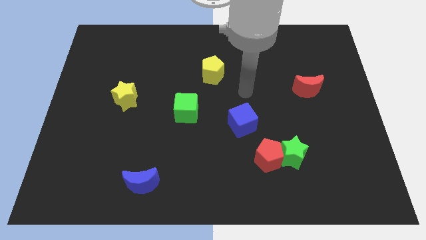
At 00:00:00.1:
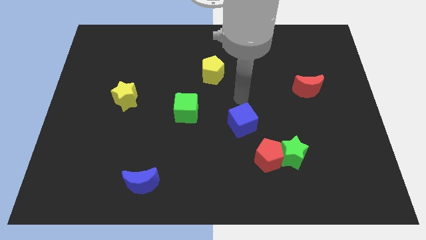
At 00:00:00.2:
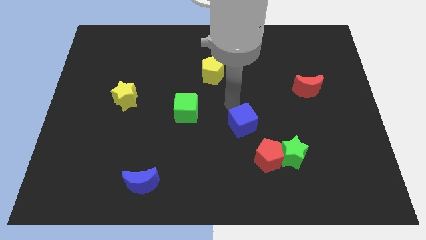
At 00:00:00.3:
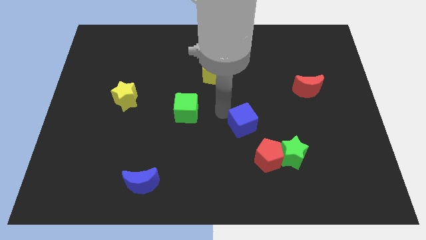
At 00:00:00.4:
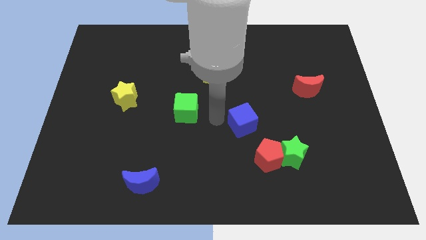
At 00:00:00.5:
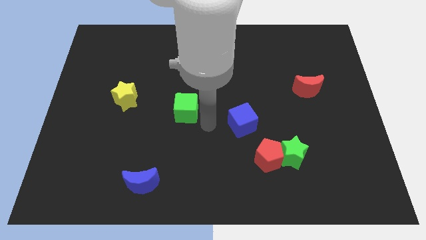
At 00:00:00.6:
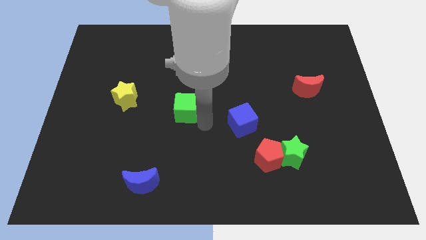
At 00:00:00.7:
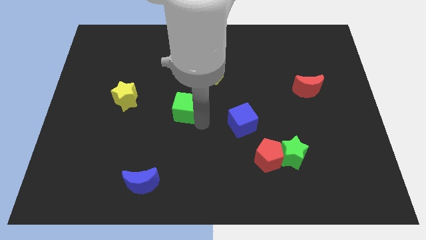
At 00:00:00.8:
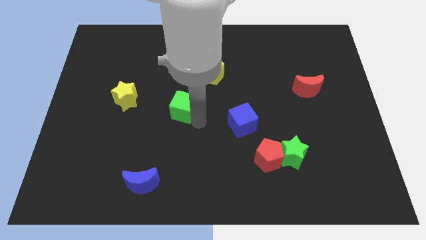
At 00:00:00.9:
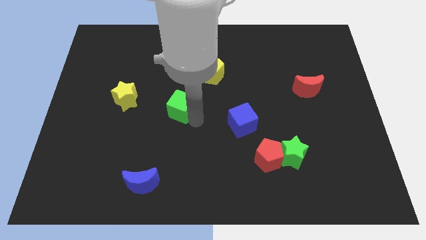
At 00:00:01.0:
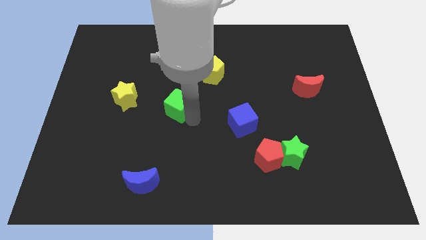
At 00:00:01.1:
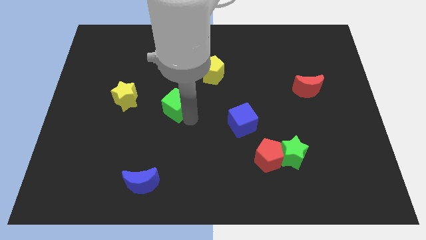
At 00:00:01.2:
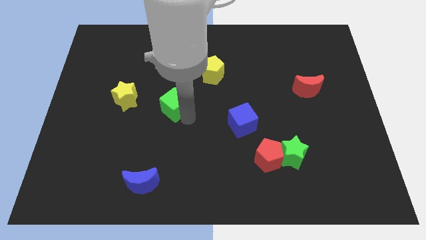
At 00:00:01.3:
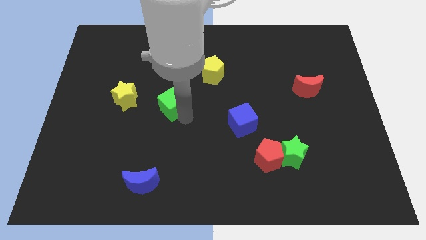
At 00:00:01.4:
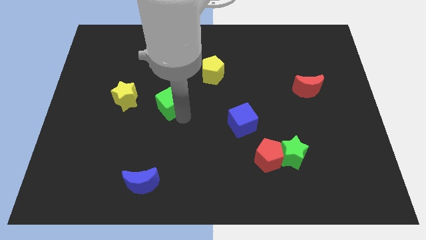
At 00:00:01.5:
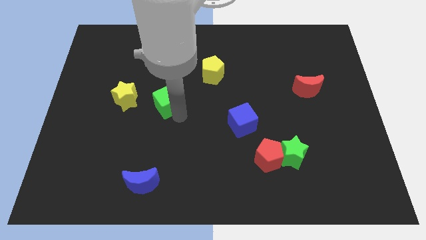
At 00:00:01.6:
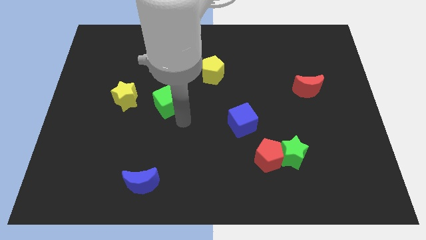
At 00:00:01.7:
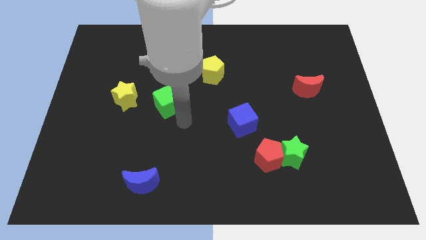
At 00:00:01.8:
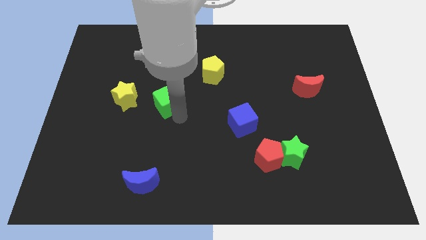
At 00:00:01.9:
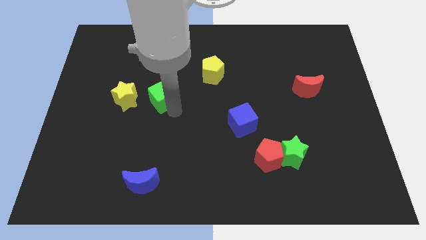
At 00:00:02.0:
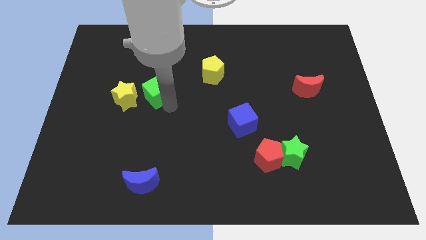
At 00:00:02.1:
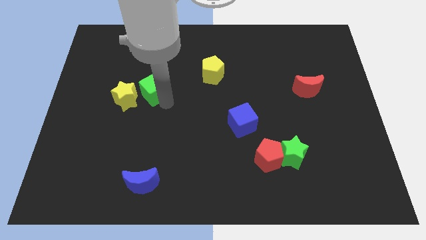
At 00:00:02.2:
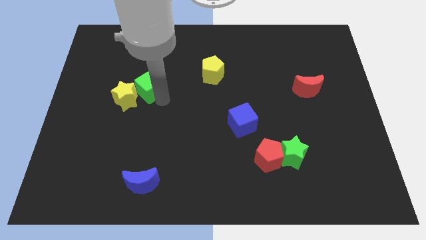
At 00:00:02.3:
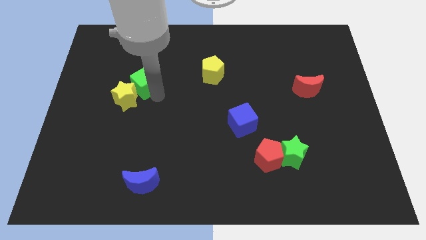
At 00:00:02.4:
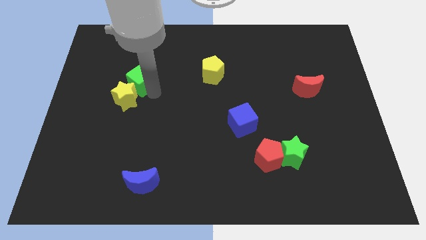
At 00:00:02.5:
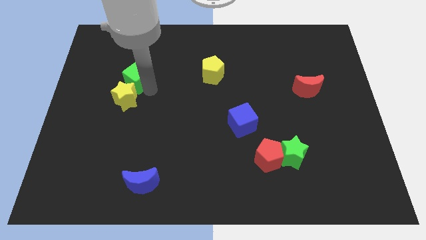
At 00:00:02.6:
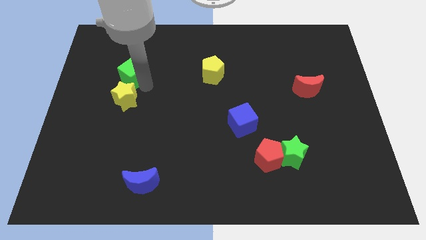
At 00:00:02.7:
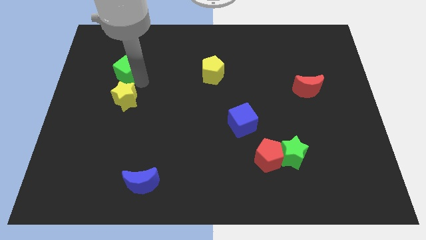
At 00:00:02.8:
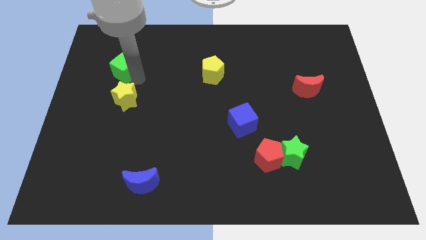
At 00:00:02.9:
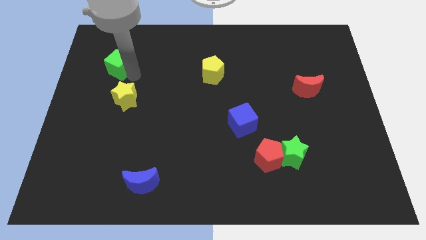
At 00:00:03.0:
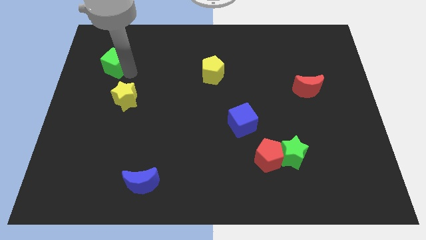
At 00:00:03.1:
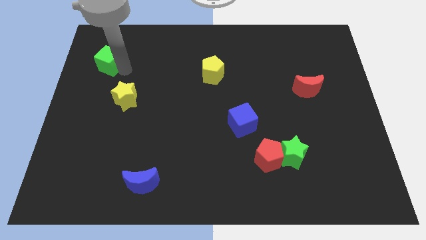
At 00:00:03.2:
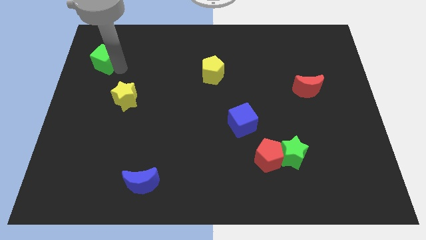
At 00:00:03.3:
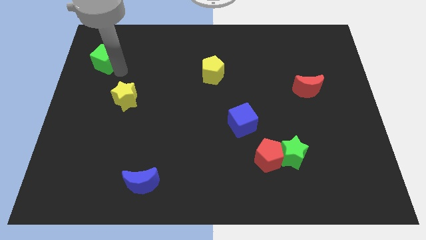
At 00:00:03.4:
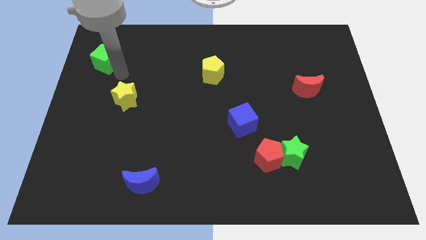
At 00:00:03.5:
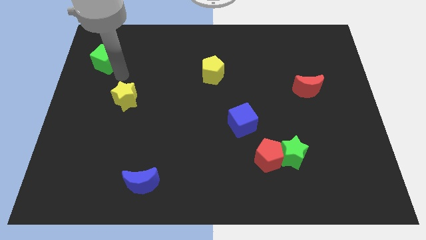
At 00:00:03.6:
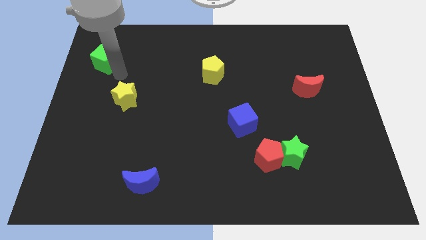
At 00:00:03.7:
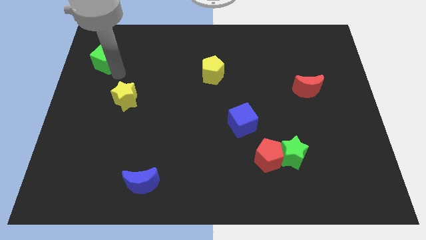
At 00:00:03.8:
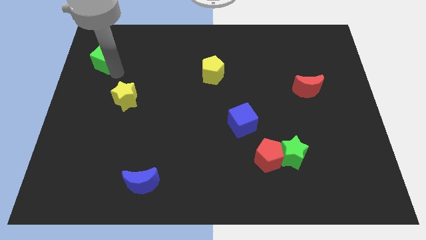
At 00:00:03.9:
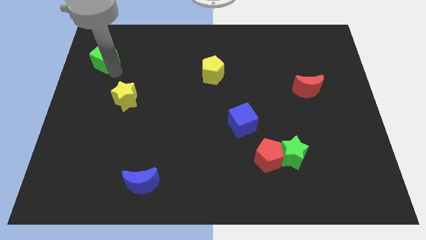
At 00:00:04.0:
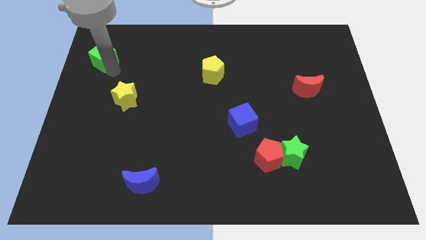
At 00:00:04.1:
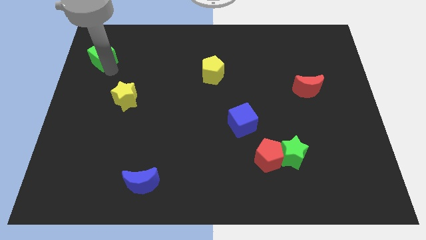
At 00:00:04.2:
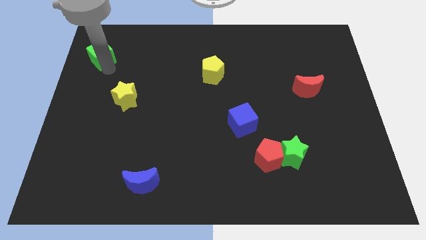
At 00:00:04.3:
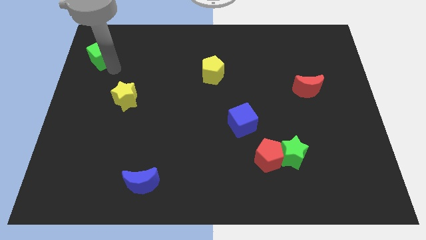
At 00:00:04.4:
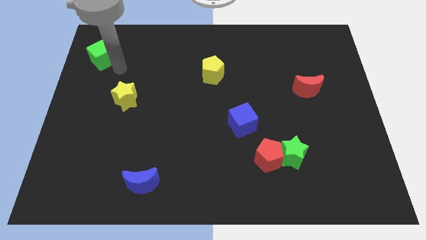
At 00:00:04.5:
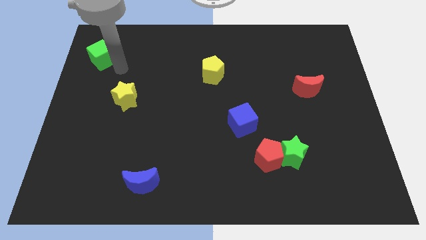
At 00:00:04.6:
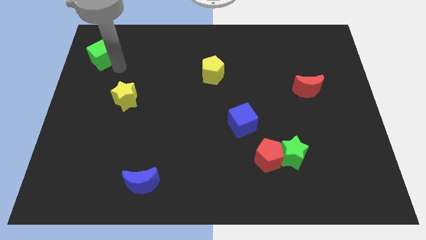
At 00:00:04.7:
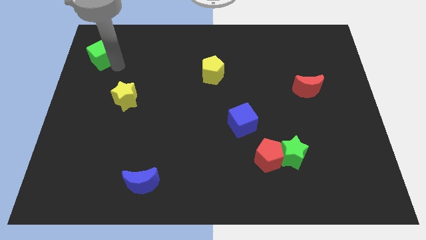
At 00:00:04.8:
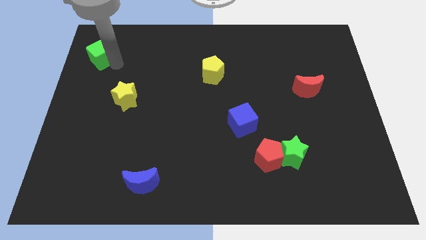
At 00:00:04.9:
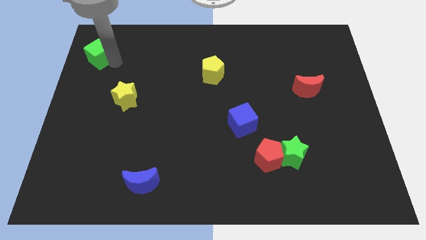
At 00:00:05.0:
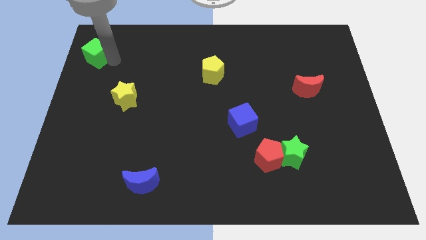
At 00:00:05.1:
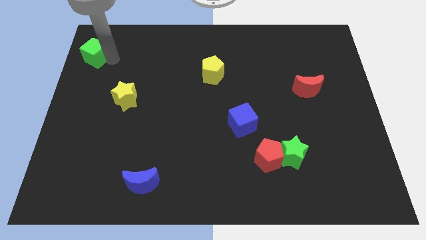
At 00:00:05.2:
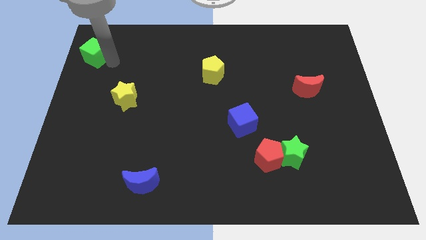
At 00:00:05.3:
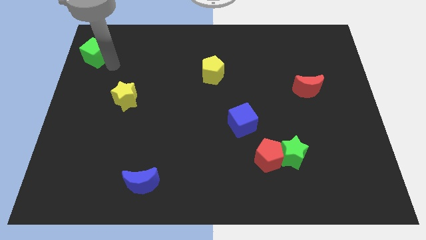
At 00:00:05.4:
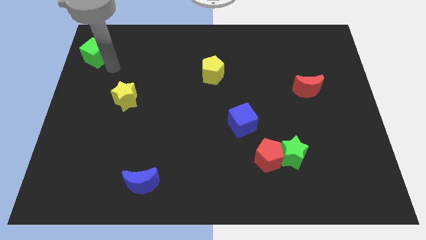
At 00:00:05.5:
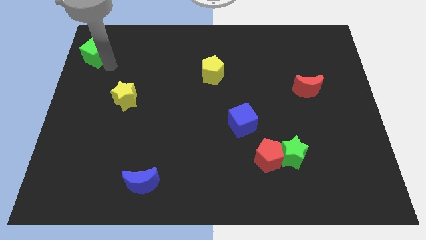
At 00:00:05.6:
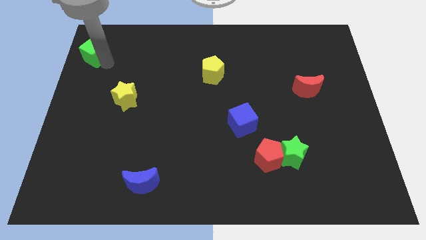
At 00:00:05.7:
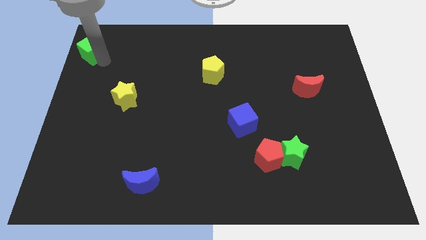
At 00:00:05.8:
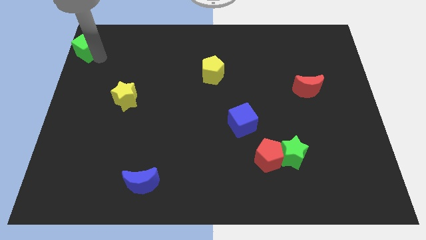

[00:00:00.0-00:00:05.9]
push the green cube to the top left
